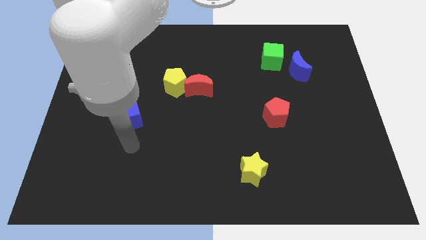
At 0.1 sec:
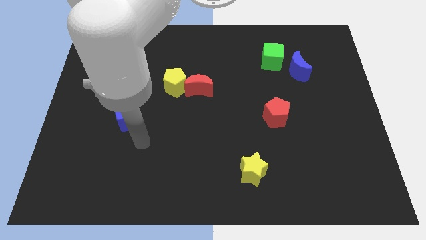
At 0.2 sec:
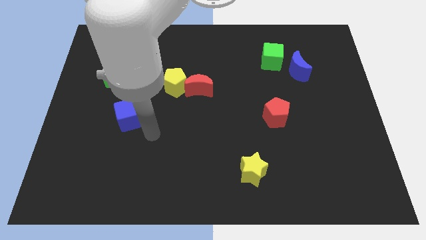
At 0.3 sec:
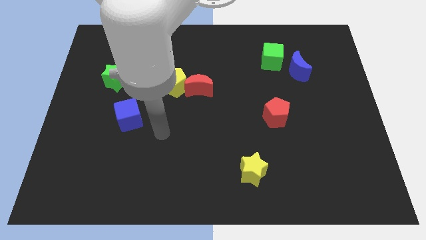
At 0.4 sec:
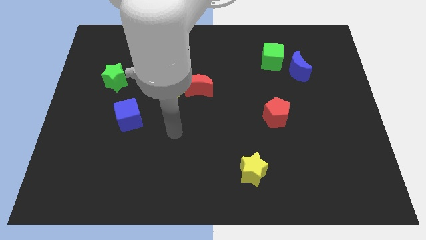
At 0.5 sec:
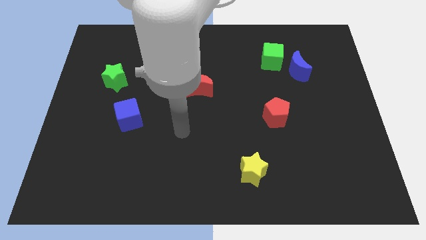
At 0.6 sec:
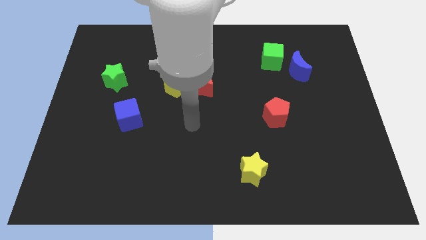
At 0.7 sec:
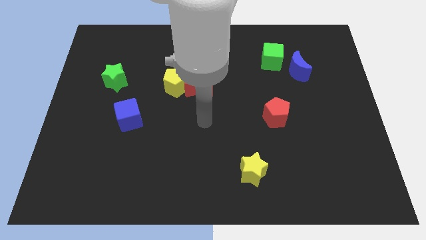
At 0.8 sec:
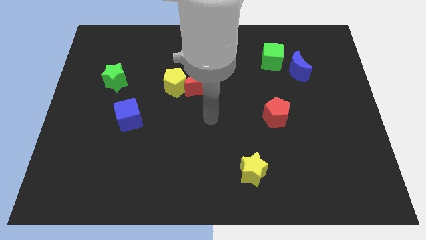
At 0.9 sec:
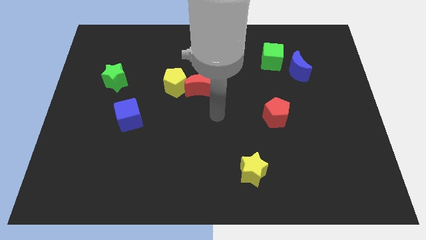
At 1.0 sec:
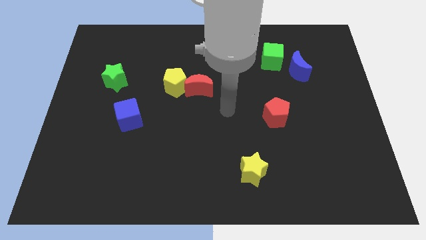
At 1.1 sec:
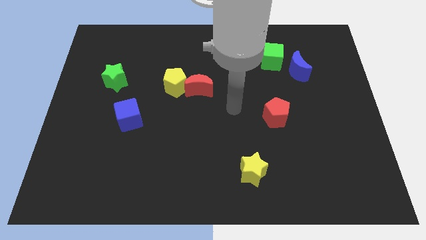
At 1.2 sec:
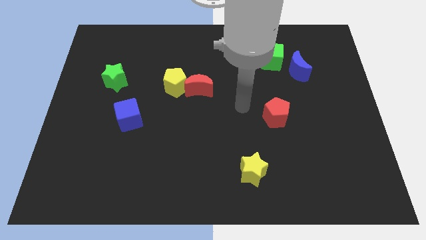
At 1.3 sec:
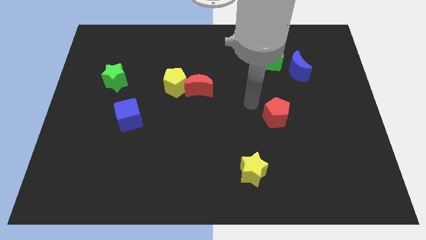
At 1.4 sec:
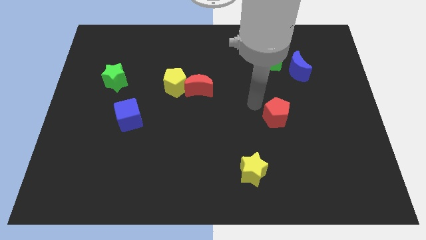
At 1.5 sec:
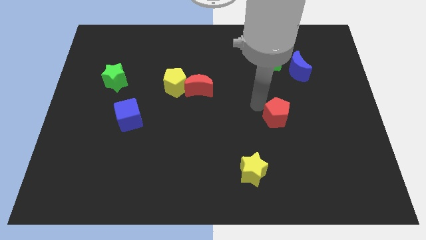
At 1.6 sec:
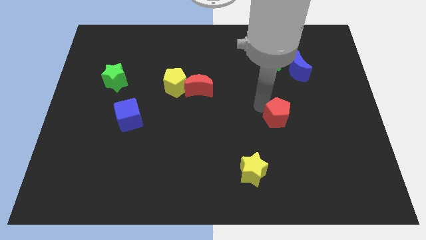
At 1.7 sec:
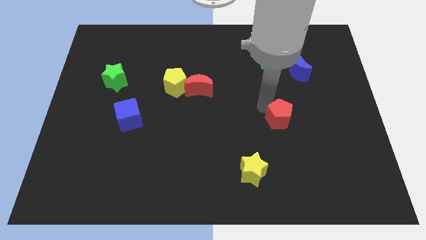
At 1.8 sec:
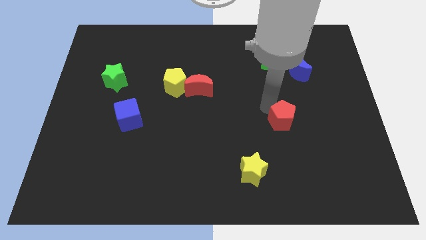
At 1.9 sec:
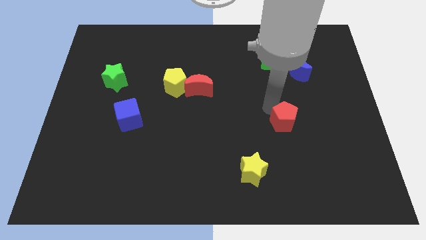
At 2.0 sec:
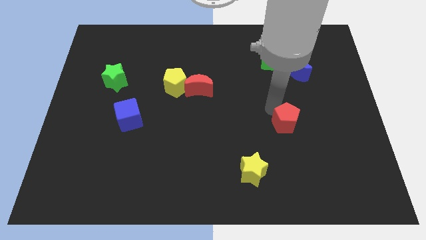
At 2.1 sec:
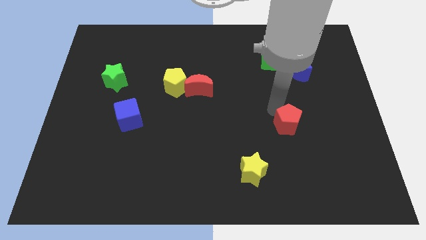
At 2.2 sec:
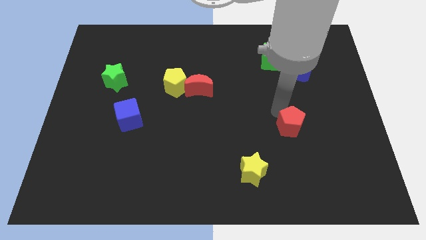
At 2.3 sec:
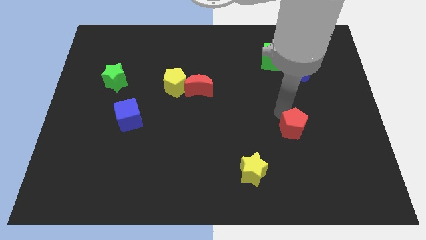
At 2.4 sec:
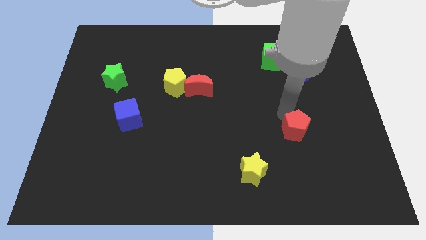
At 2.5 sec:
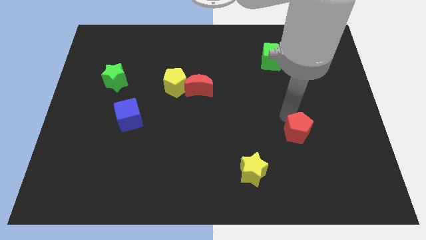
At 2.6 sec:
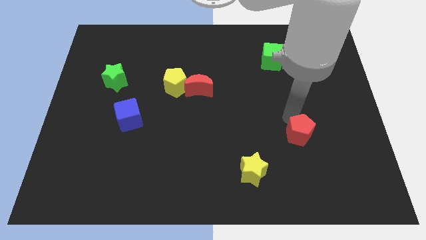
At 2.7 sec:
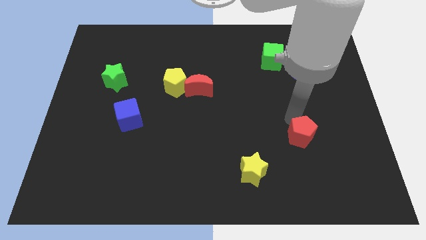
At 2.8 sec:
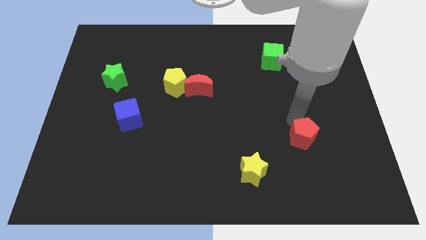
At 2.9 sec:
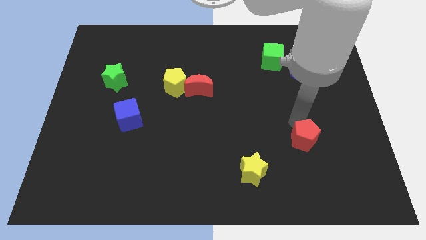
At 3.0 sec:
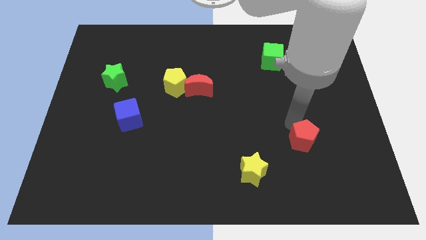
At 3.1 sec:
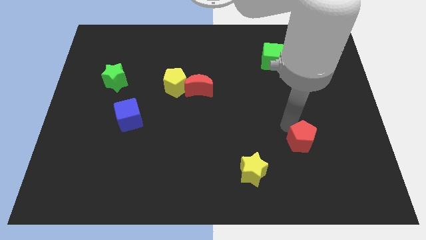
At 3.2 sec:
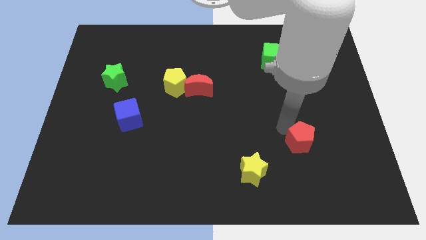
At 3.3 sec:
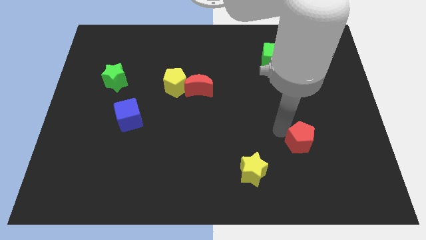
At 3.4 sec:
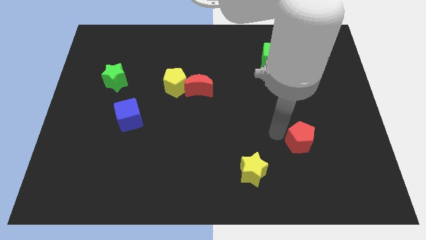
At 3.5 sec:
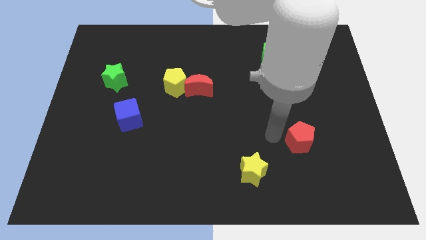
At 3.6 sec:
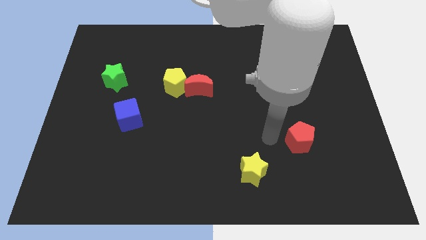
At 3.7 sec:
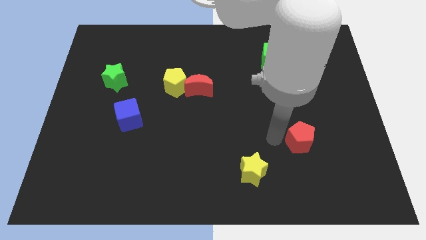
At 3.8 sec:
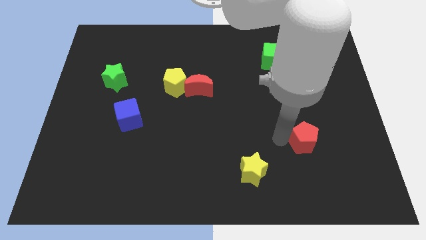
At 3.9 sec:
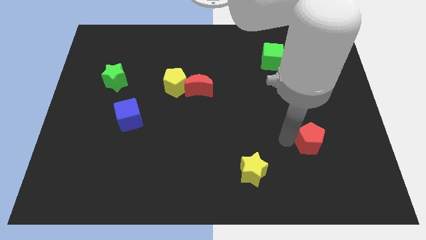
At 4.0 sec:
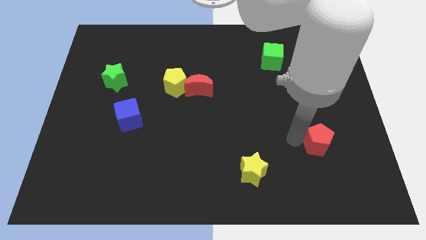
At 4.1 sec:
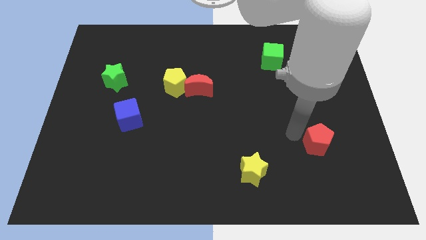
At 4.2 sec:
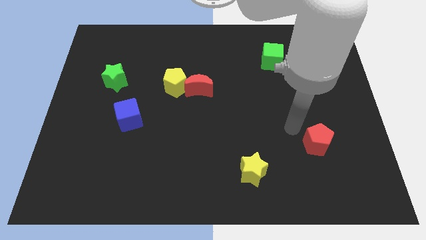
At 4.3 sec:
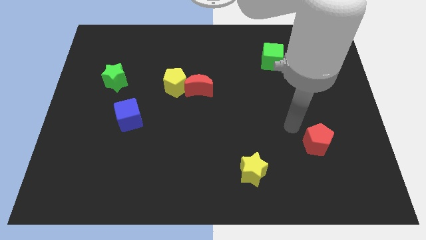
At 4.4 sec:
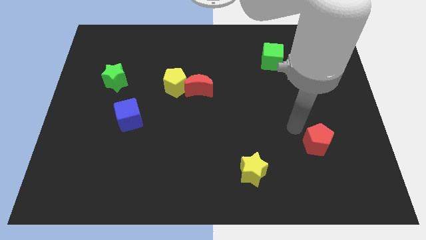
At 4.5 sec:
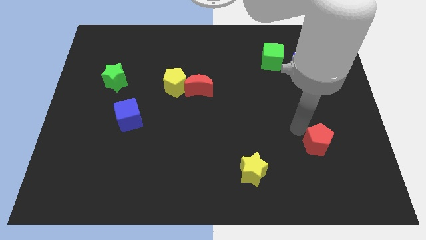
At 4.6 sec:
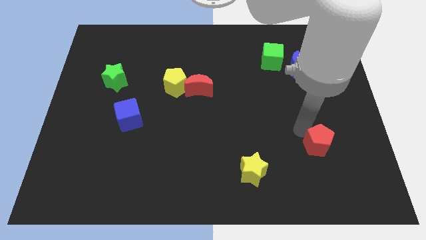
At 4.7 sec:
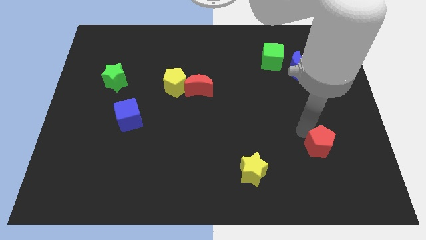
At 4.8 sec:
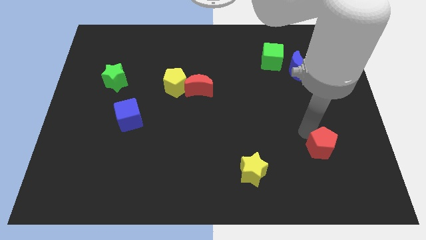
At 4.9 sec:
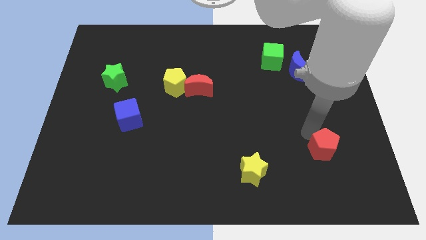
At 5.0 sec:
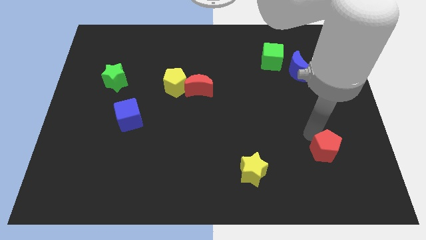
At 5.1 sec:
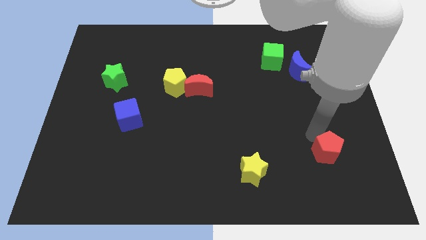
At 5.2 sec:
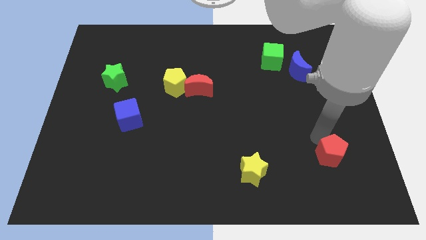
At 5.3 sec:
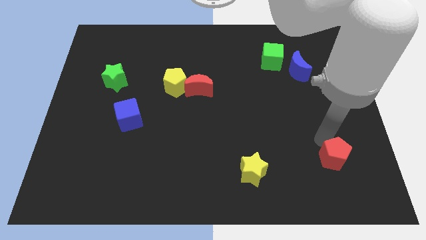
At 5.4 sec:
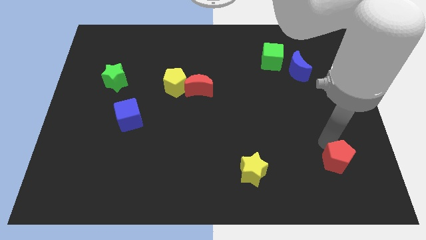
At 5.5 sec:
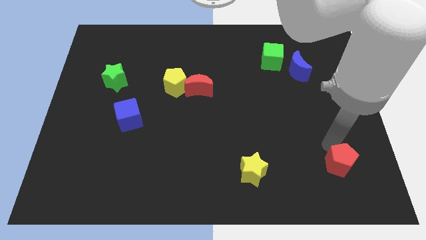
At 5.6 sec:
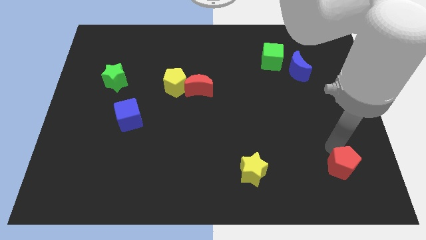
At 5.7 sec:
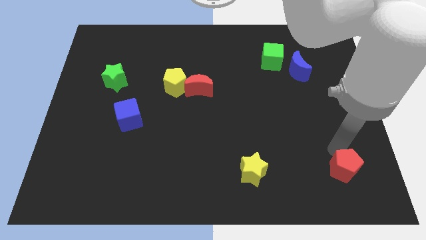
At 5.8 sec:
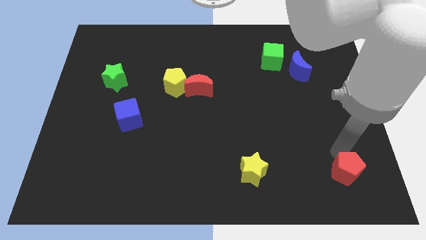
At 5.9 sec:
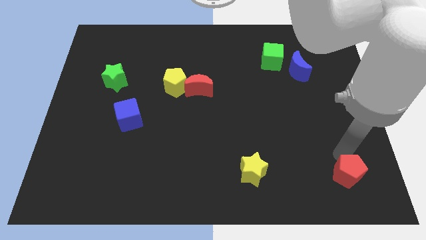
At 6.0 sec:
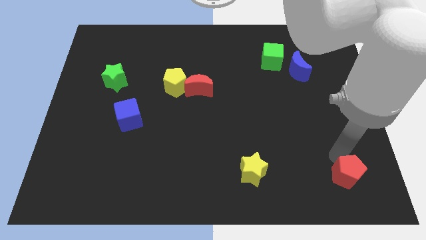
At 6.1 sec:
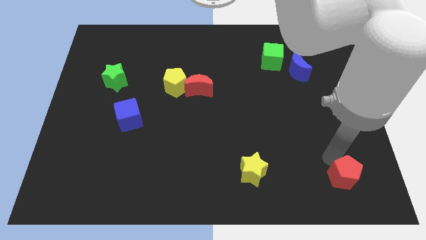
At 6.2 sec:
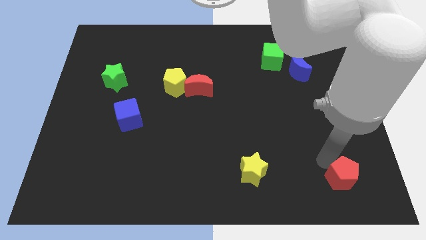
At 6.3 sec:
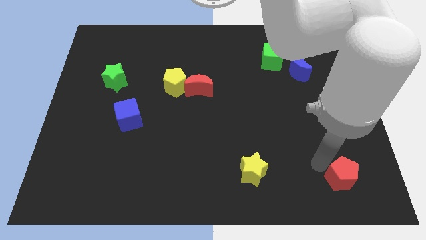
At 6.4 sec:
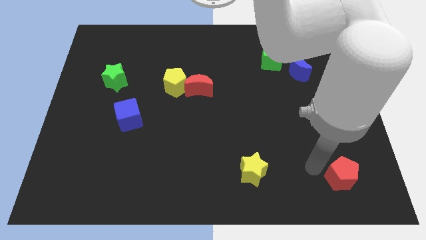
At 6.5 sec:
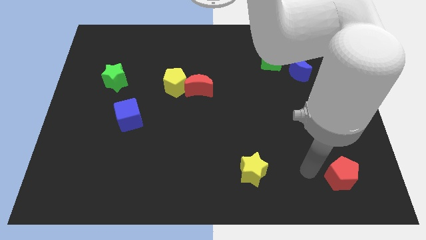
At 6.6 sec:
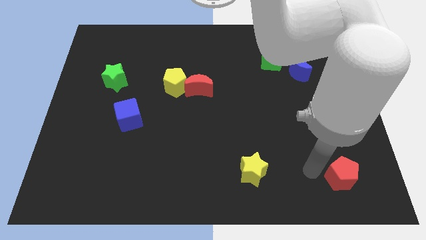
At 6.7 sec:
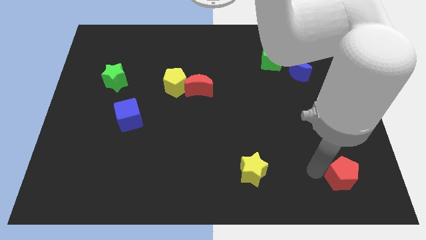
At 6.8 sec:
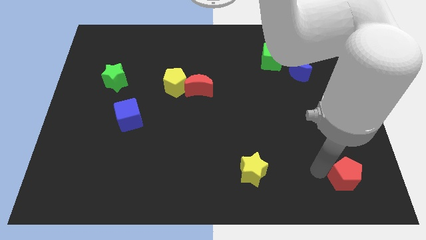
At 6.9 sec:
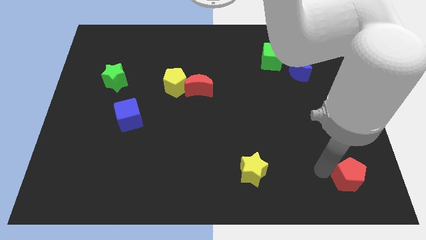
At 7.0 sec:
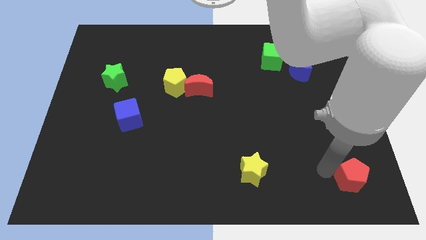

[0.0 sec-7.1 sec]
push the red pentagon to the bottom right corner
